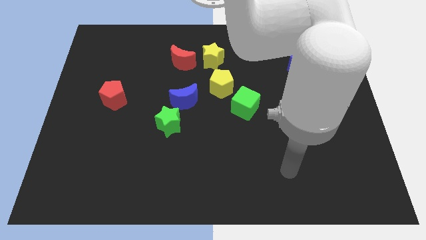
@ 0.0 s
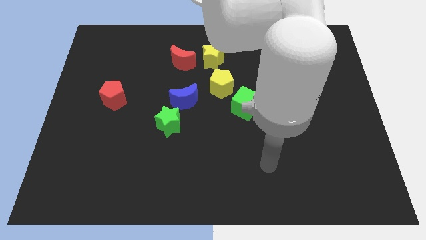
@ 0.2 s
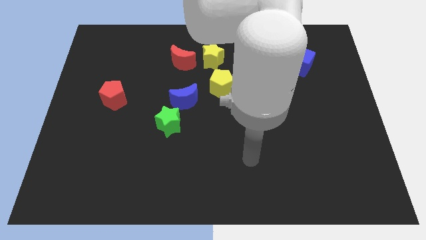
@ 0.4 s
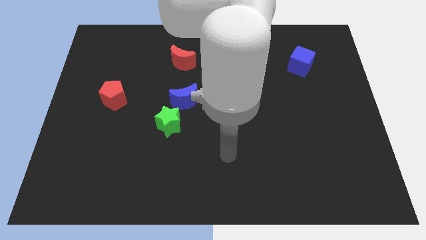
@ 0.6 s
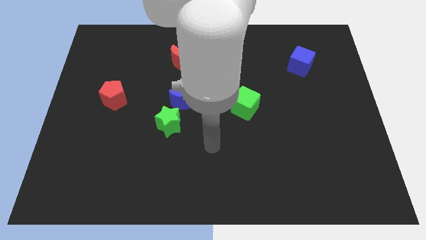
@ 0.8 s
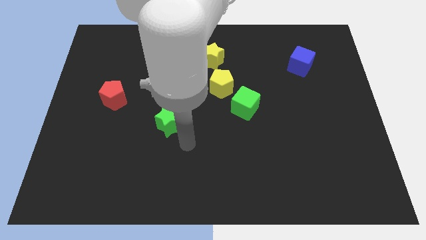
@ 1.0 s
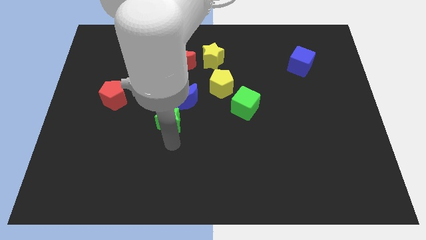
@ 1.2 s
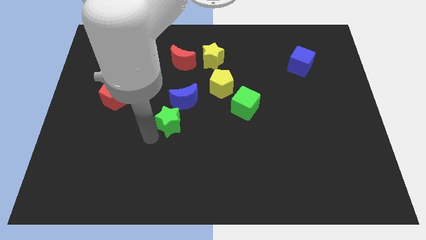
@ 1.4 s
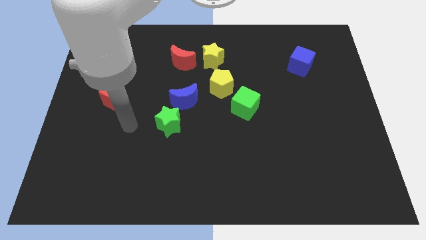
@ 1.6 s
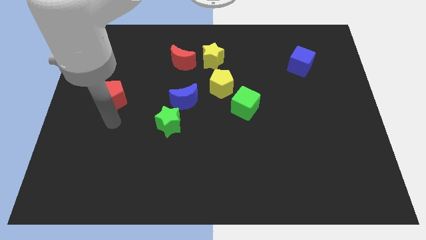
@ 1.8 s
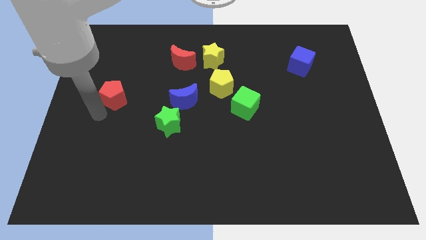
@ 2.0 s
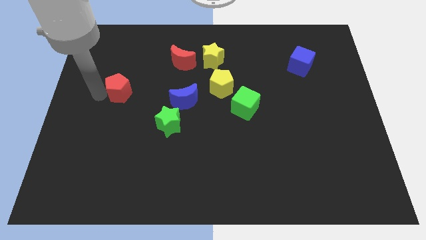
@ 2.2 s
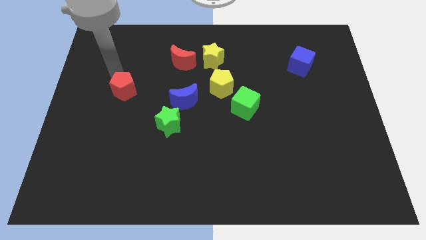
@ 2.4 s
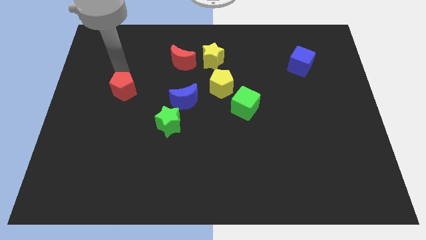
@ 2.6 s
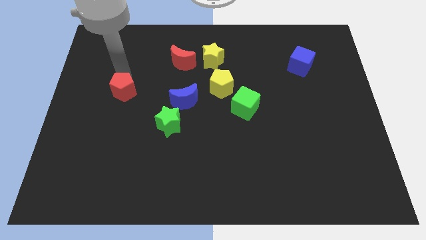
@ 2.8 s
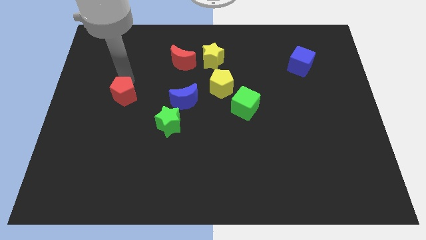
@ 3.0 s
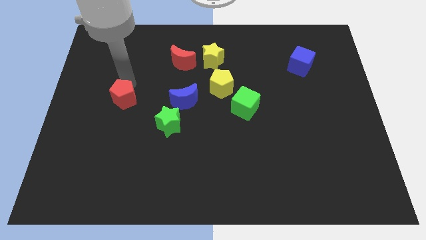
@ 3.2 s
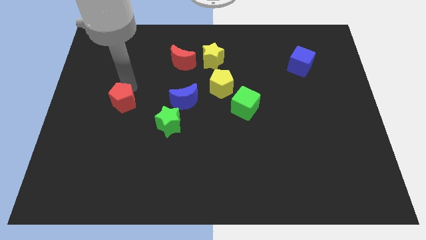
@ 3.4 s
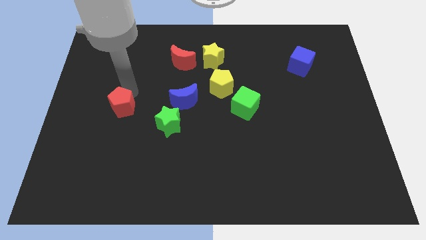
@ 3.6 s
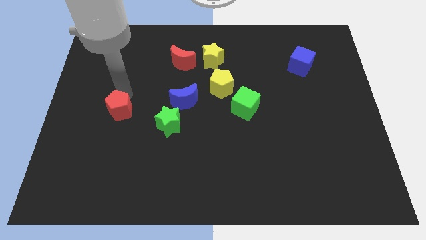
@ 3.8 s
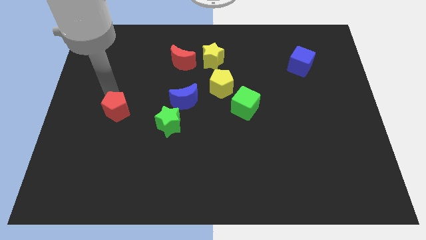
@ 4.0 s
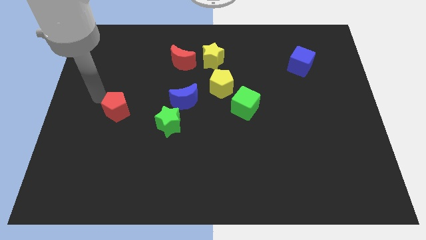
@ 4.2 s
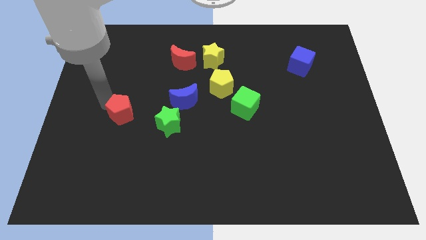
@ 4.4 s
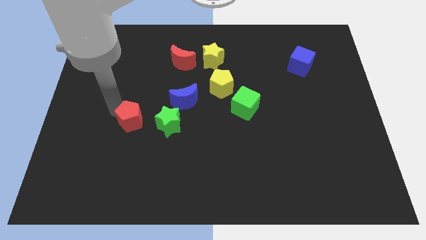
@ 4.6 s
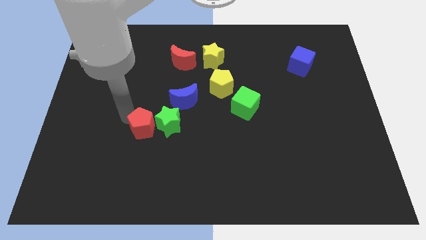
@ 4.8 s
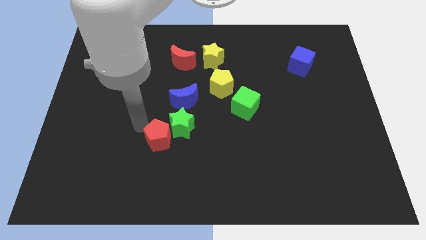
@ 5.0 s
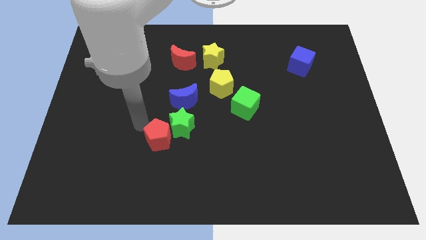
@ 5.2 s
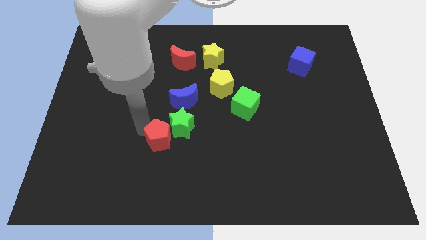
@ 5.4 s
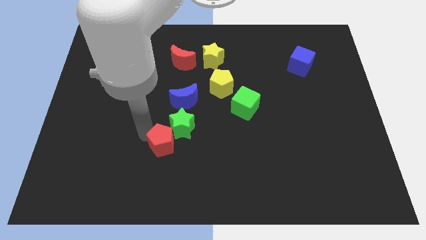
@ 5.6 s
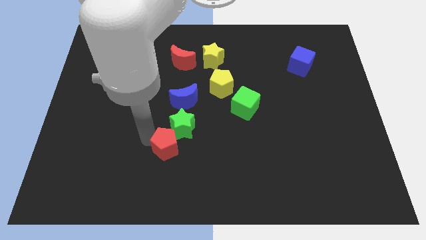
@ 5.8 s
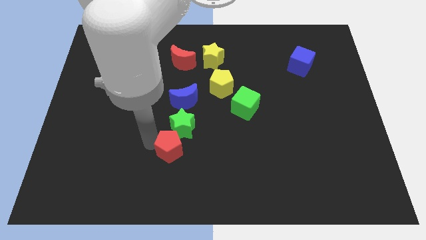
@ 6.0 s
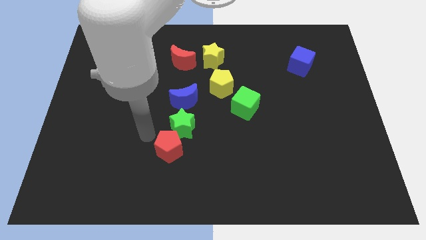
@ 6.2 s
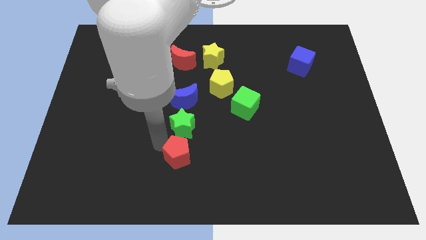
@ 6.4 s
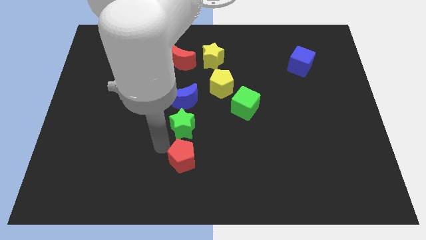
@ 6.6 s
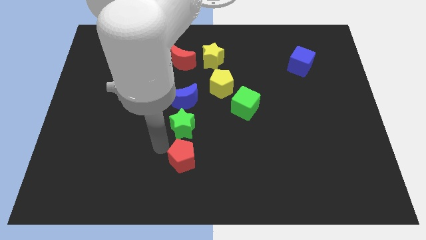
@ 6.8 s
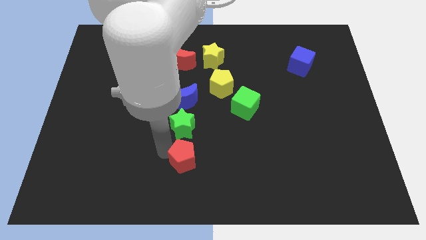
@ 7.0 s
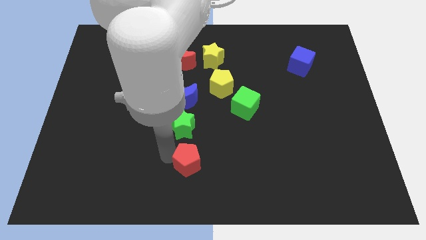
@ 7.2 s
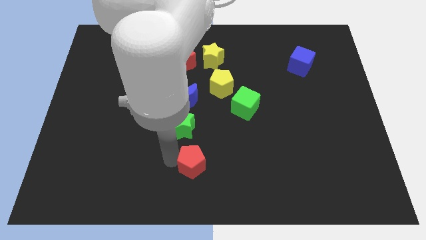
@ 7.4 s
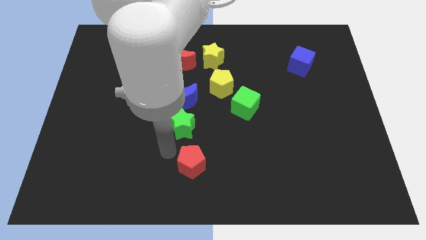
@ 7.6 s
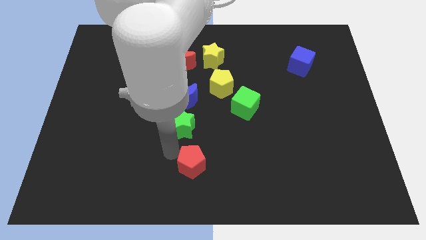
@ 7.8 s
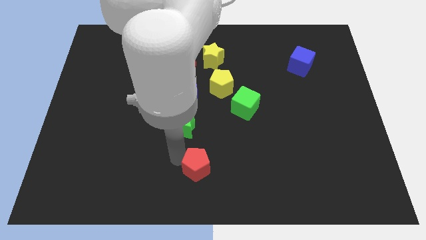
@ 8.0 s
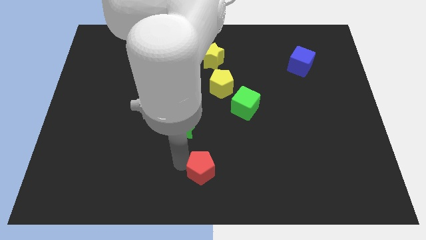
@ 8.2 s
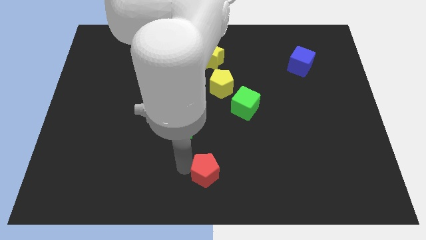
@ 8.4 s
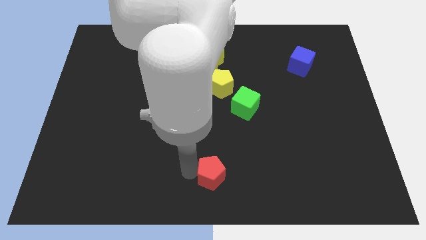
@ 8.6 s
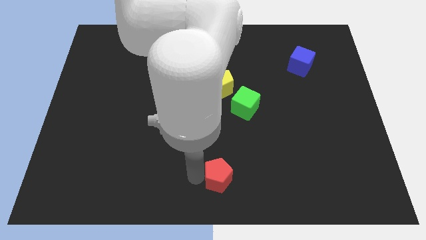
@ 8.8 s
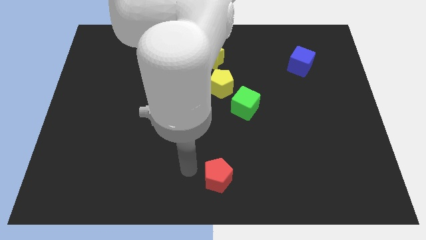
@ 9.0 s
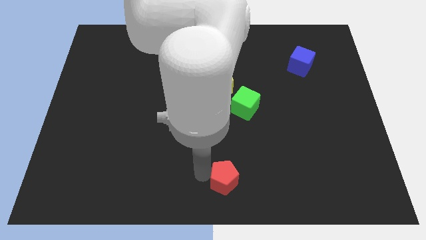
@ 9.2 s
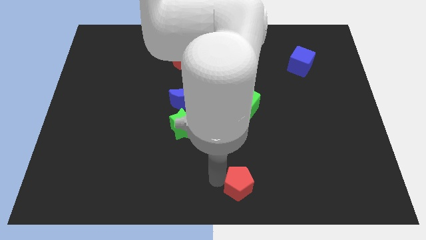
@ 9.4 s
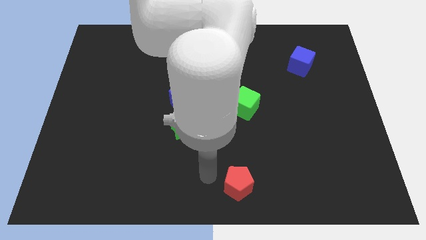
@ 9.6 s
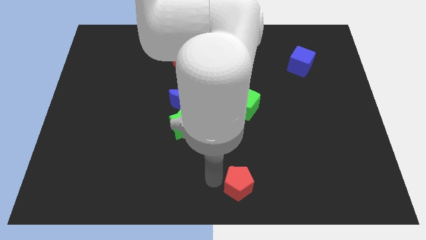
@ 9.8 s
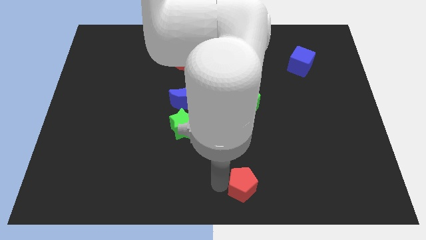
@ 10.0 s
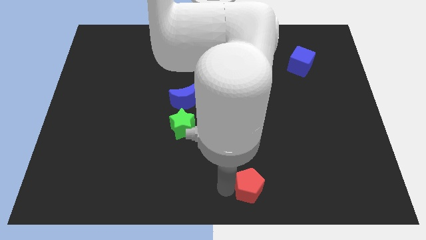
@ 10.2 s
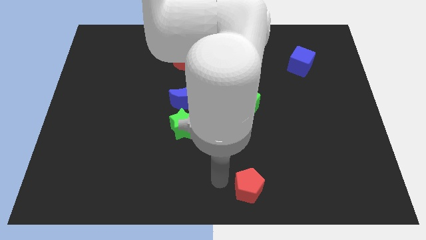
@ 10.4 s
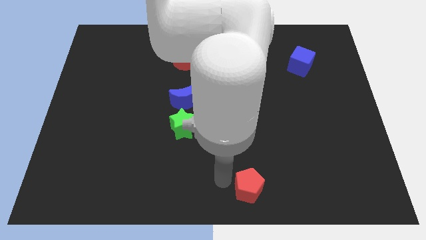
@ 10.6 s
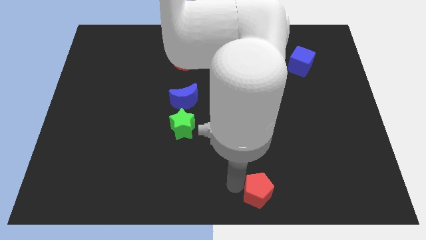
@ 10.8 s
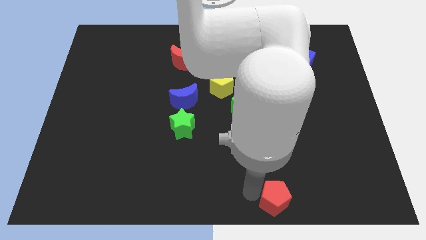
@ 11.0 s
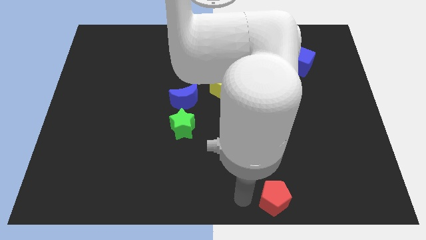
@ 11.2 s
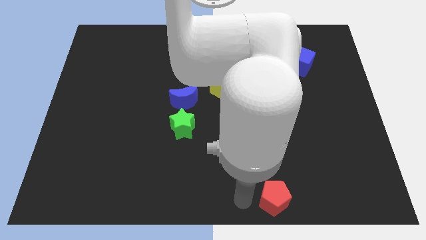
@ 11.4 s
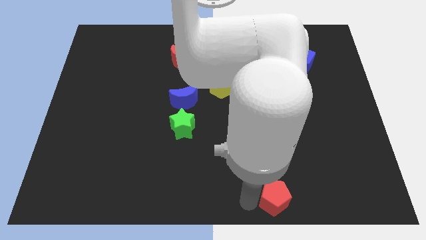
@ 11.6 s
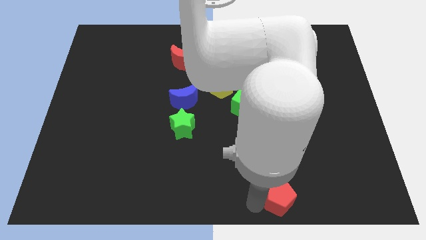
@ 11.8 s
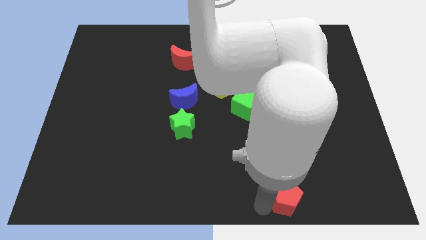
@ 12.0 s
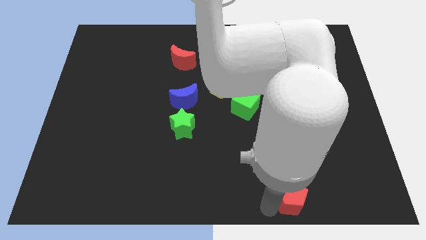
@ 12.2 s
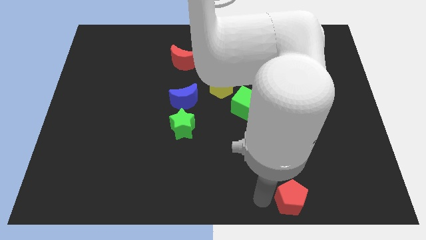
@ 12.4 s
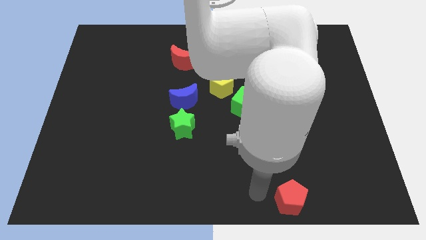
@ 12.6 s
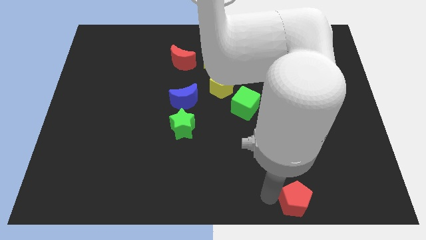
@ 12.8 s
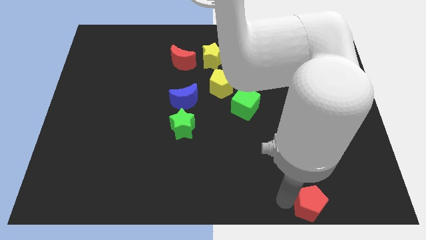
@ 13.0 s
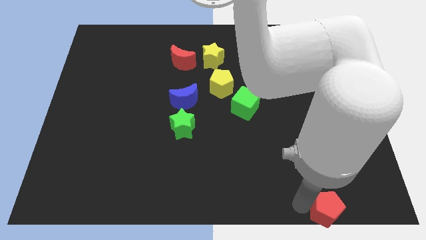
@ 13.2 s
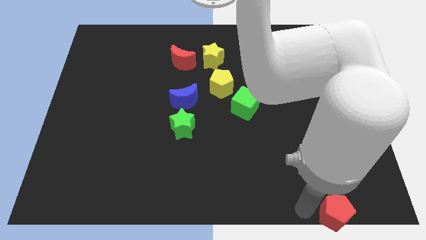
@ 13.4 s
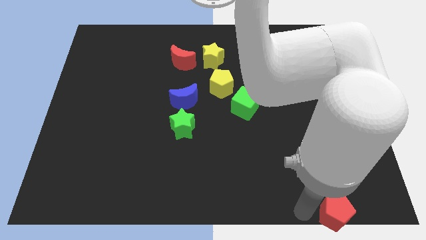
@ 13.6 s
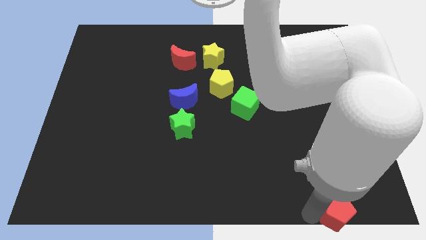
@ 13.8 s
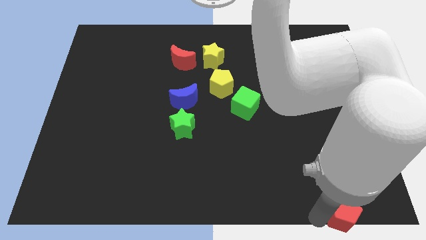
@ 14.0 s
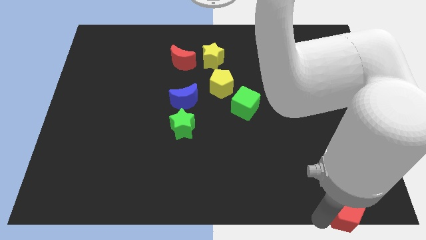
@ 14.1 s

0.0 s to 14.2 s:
move the red pentagon to the bottom right of the board
